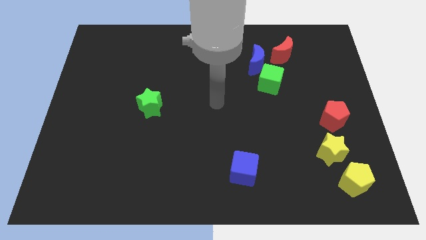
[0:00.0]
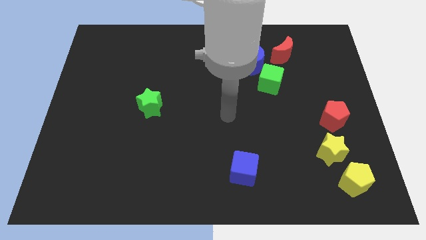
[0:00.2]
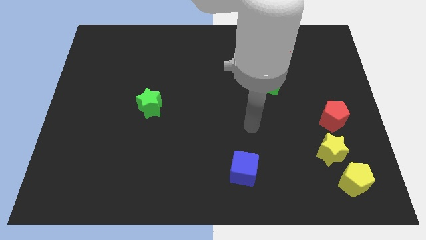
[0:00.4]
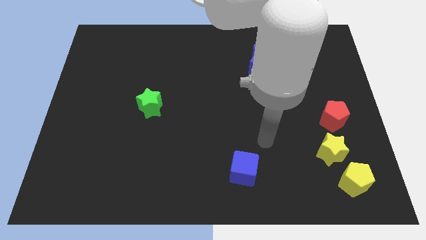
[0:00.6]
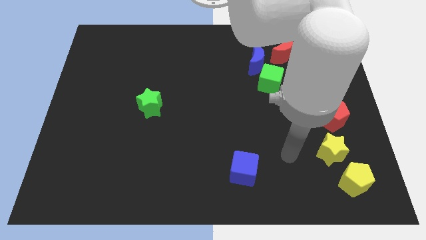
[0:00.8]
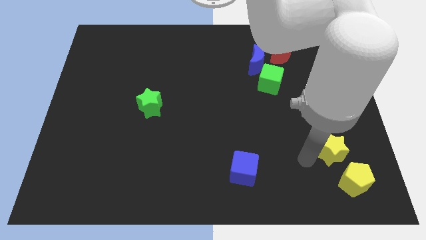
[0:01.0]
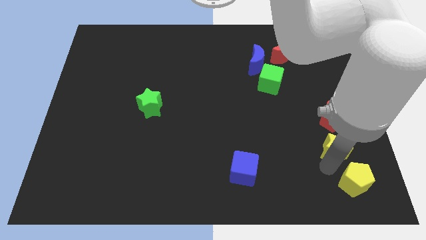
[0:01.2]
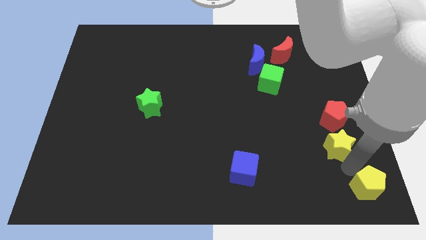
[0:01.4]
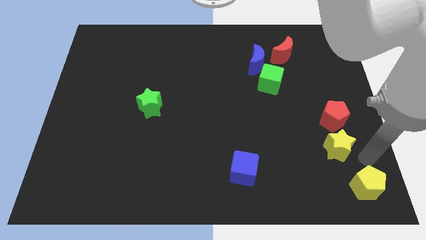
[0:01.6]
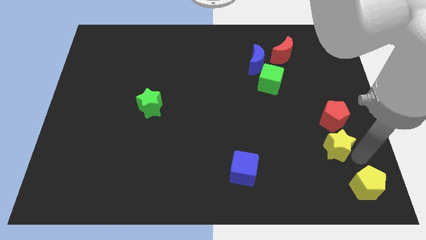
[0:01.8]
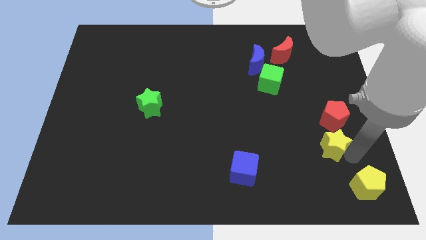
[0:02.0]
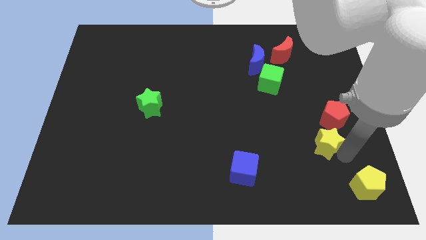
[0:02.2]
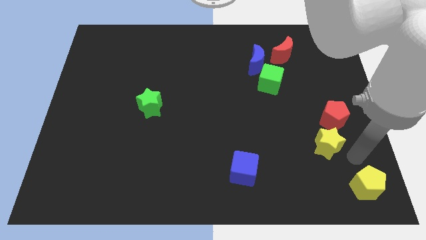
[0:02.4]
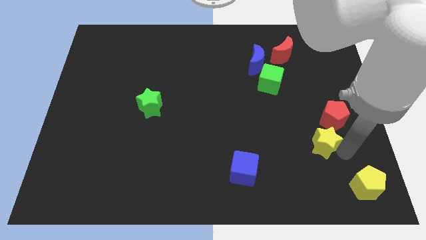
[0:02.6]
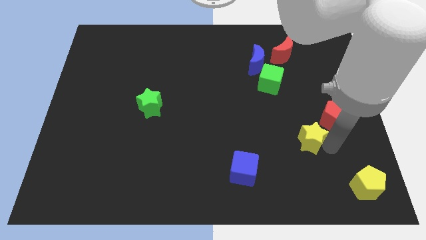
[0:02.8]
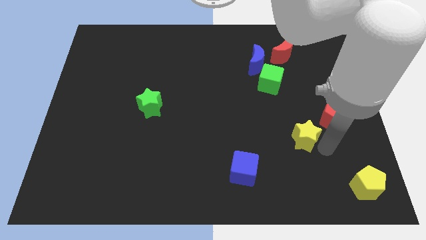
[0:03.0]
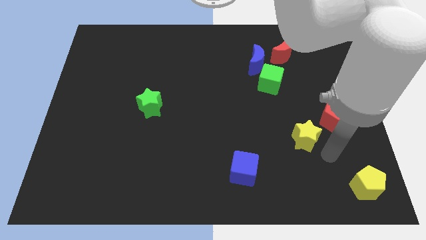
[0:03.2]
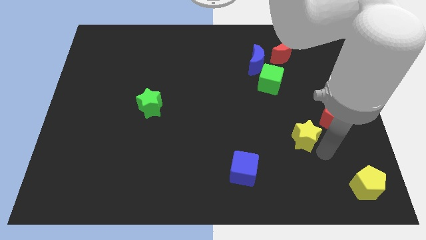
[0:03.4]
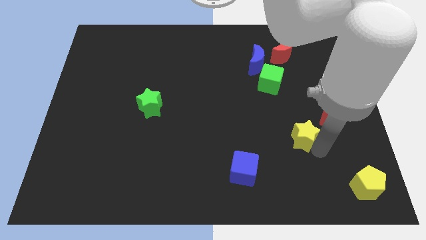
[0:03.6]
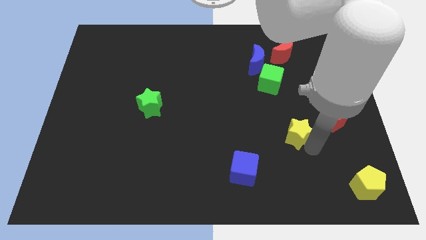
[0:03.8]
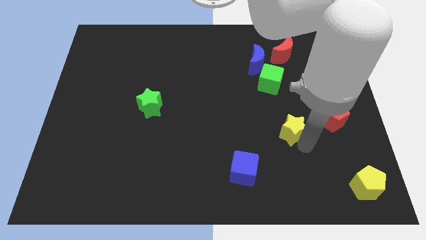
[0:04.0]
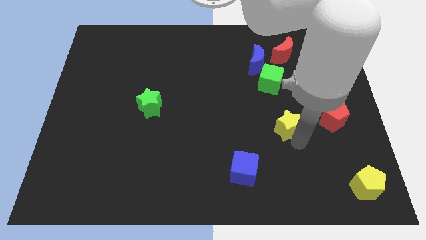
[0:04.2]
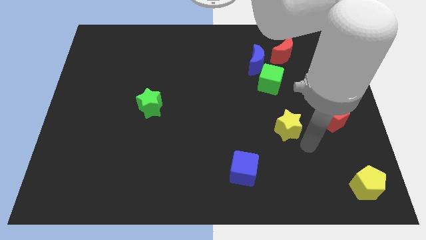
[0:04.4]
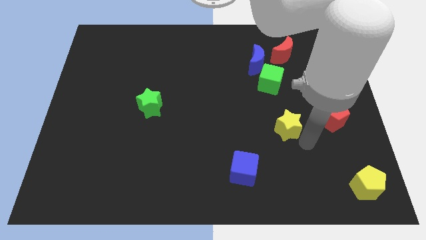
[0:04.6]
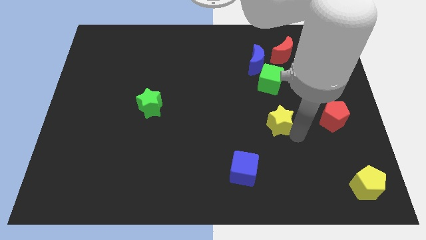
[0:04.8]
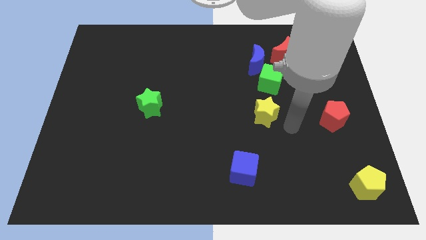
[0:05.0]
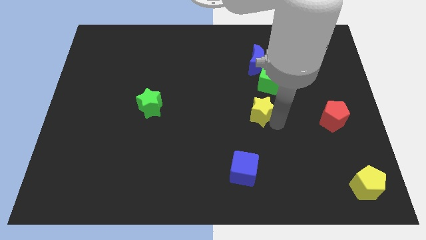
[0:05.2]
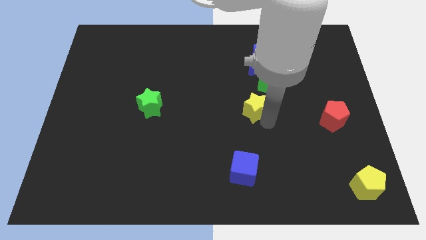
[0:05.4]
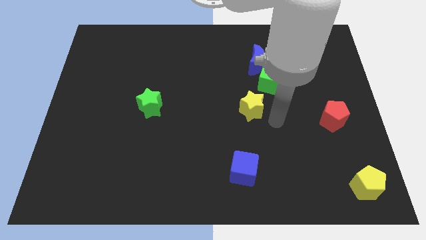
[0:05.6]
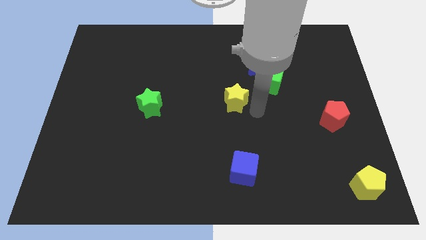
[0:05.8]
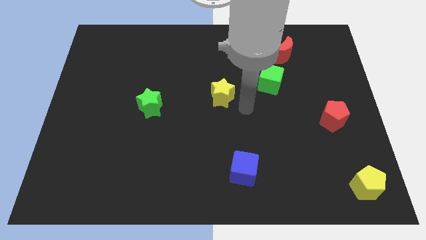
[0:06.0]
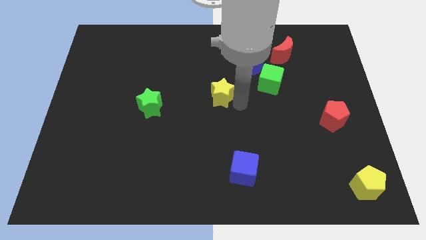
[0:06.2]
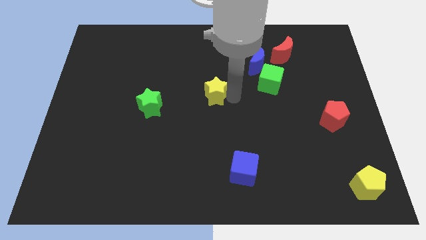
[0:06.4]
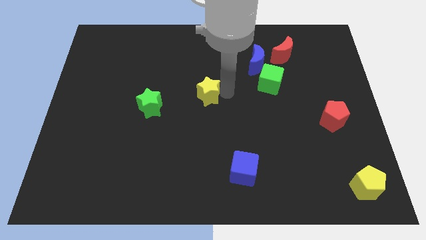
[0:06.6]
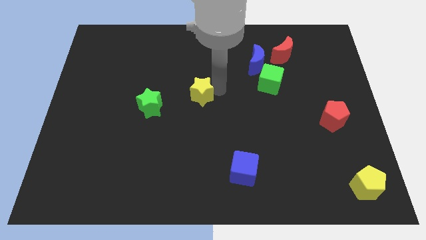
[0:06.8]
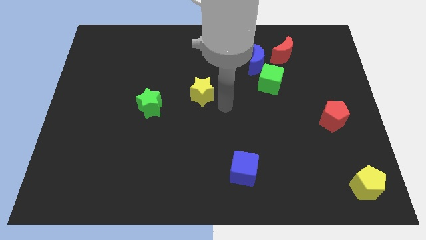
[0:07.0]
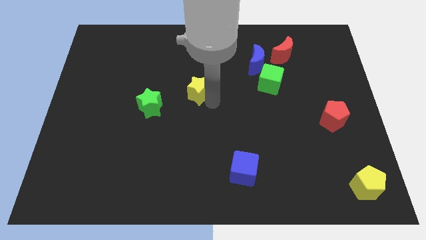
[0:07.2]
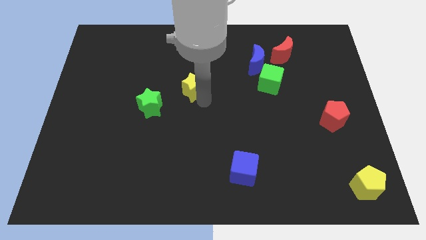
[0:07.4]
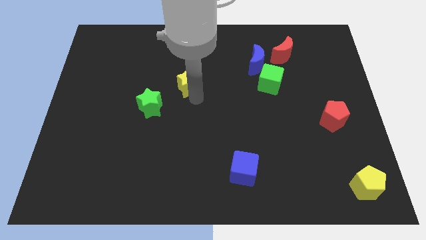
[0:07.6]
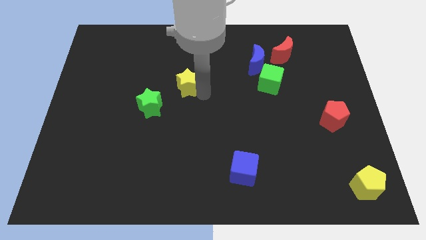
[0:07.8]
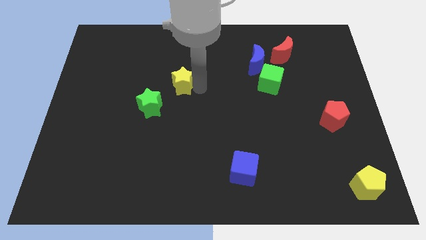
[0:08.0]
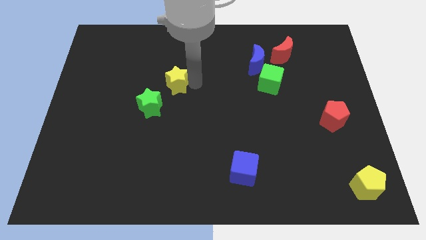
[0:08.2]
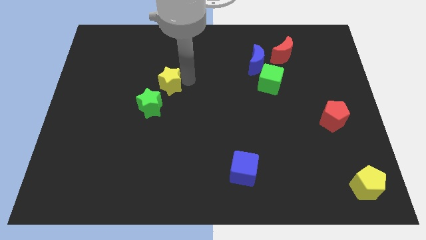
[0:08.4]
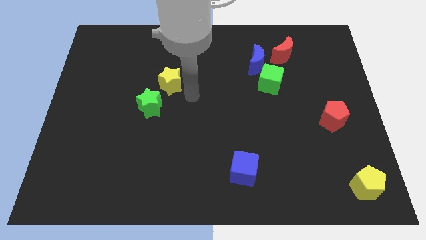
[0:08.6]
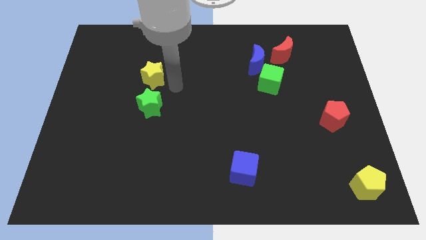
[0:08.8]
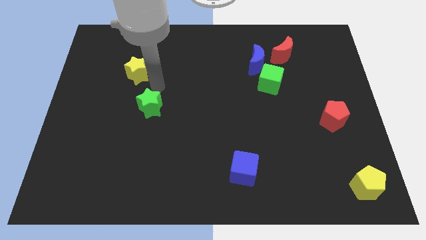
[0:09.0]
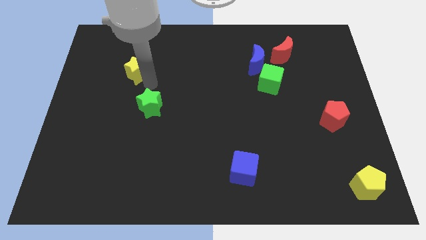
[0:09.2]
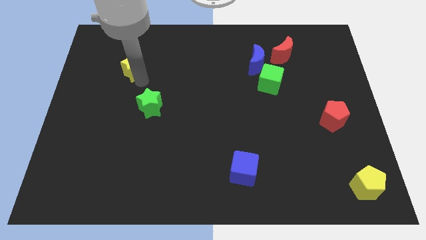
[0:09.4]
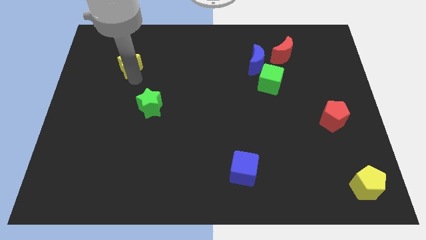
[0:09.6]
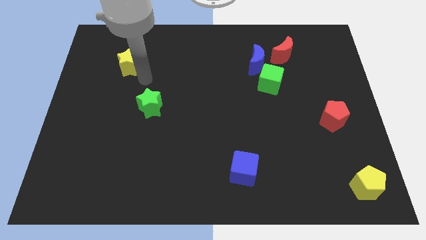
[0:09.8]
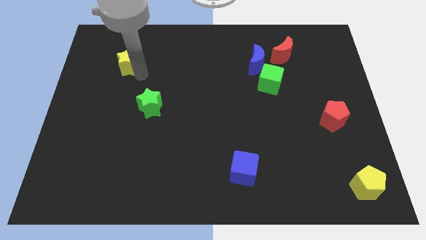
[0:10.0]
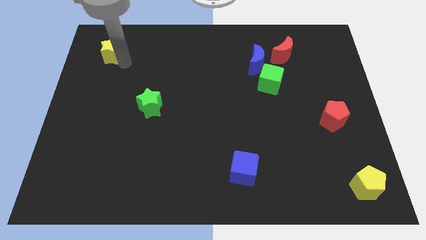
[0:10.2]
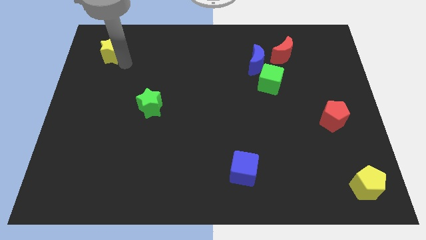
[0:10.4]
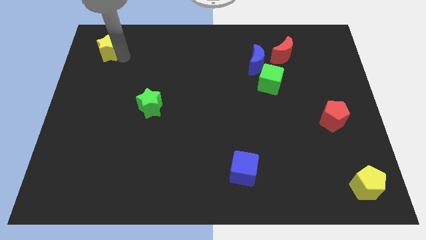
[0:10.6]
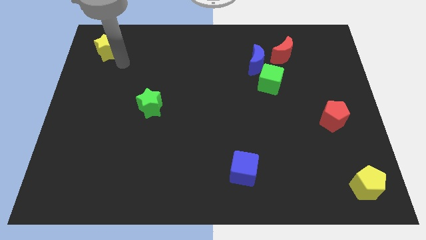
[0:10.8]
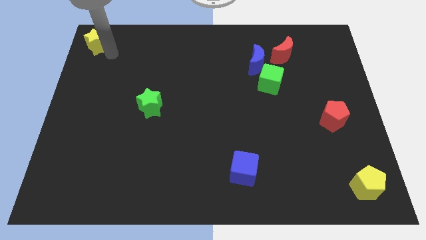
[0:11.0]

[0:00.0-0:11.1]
slide the yellow star to the top left corner
